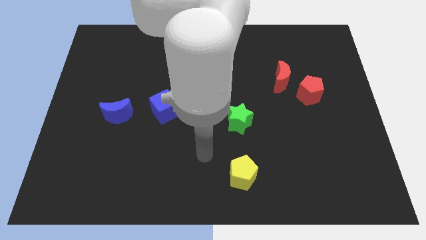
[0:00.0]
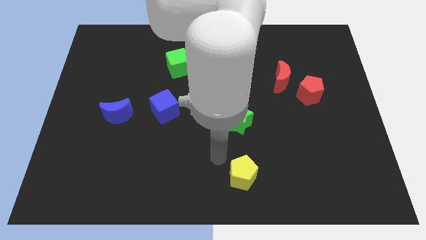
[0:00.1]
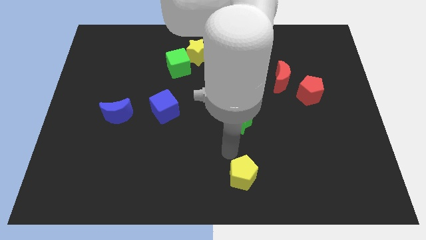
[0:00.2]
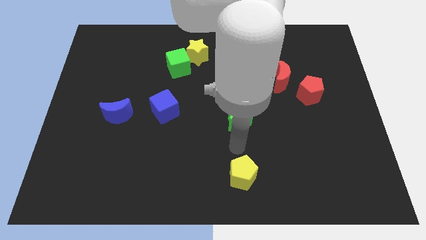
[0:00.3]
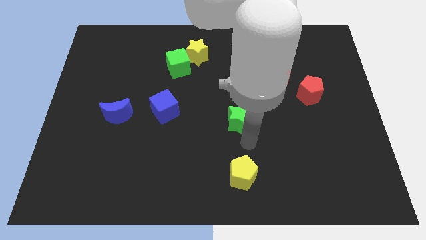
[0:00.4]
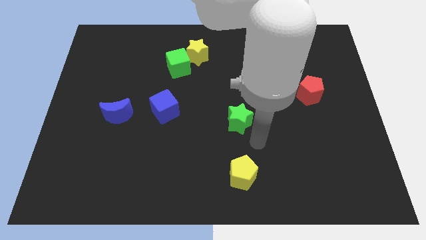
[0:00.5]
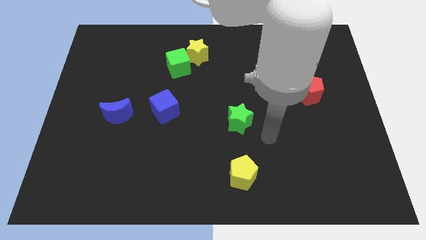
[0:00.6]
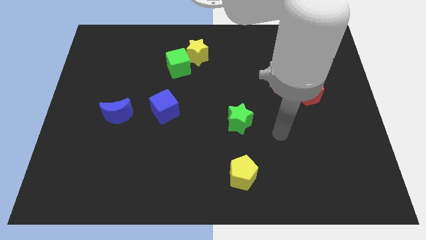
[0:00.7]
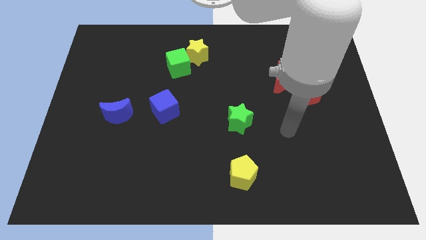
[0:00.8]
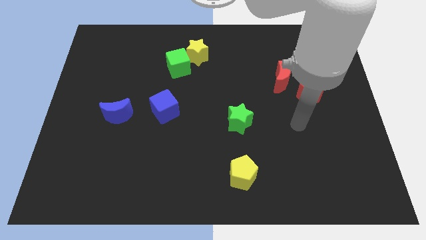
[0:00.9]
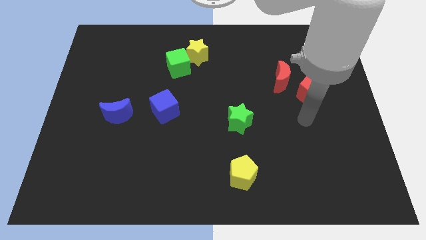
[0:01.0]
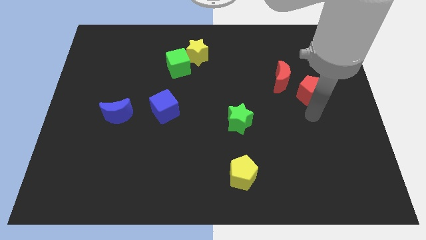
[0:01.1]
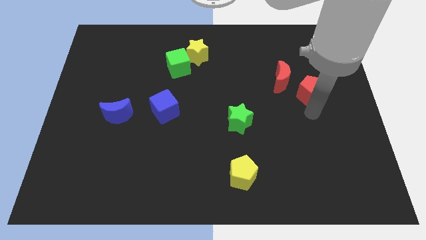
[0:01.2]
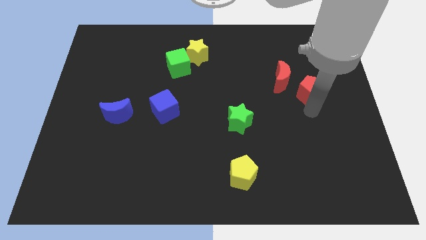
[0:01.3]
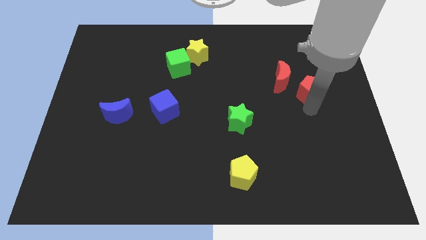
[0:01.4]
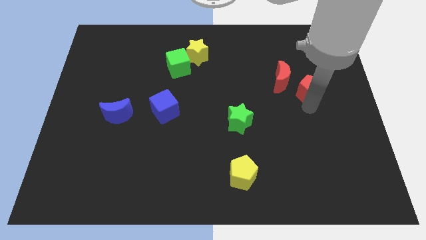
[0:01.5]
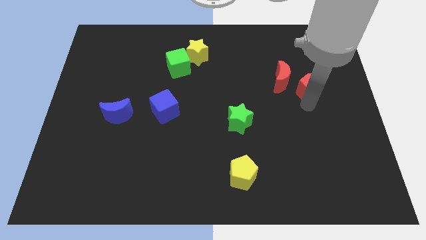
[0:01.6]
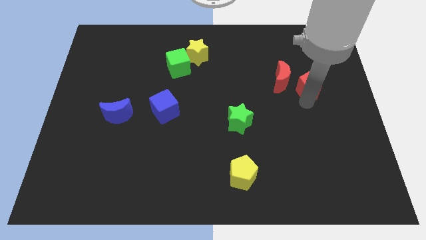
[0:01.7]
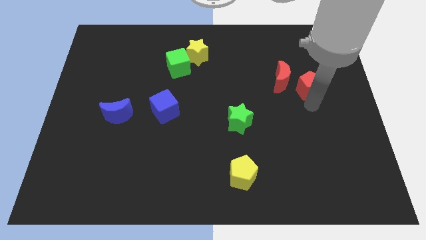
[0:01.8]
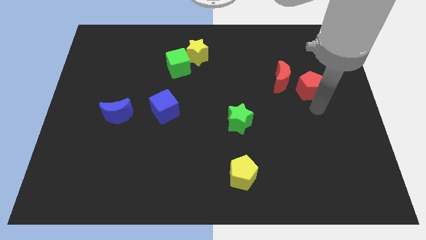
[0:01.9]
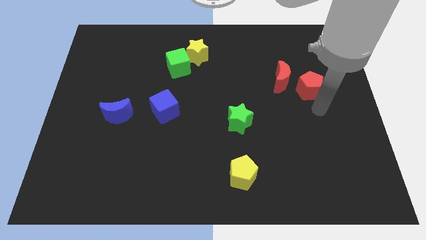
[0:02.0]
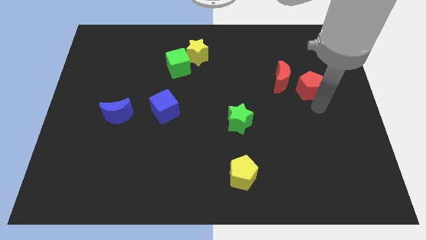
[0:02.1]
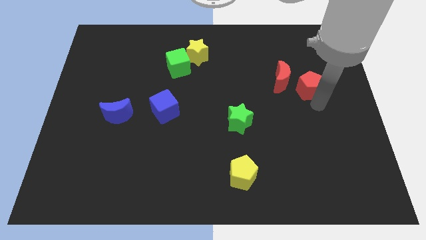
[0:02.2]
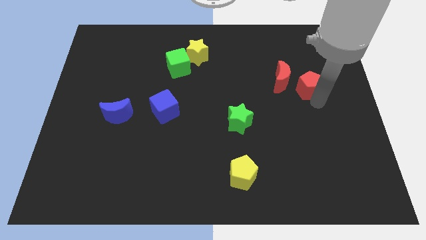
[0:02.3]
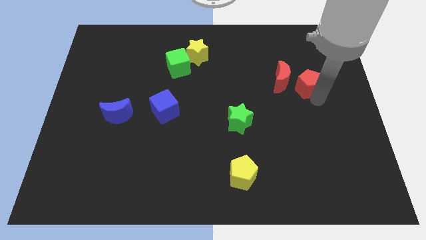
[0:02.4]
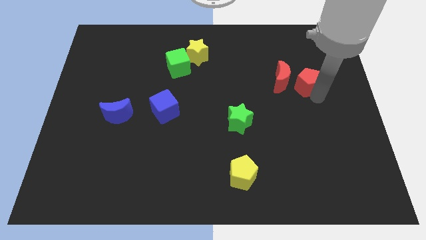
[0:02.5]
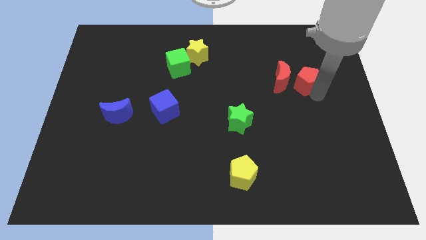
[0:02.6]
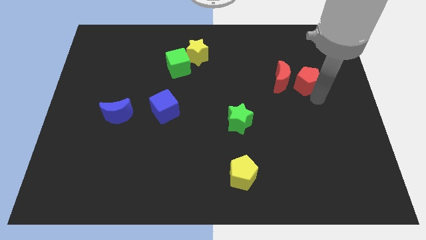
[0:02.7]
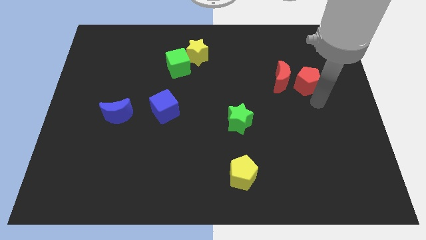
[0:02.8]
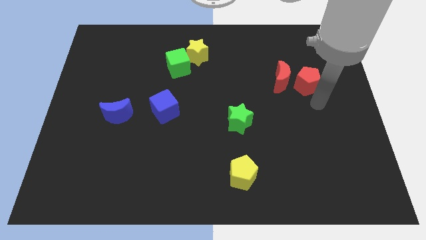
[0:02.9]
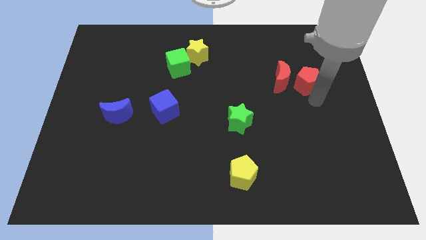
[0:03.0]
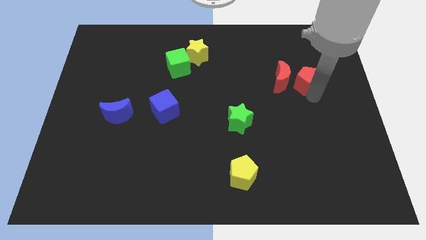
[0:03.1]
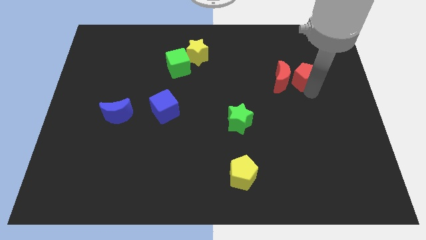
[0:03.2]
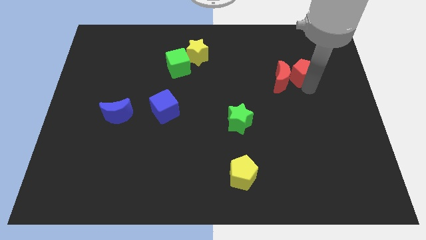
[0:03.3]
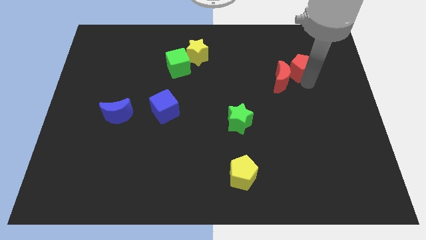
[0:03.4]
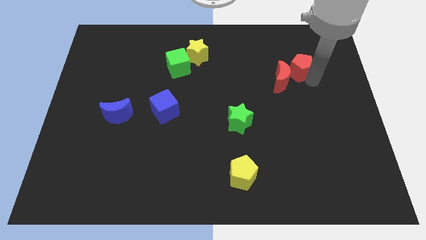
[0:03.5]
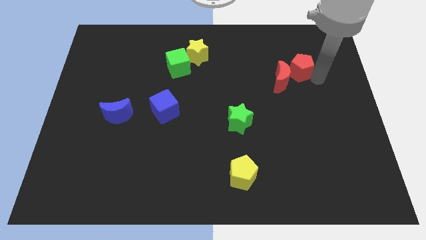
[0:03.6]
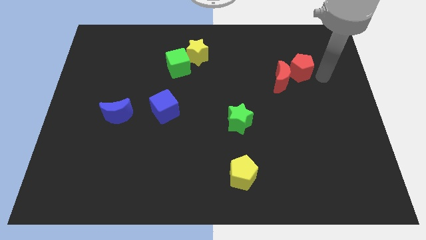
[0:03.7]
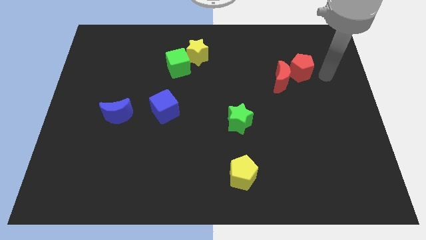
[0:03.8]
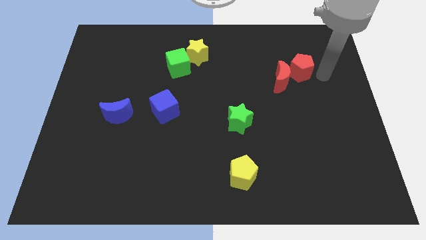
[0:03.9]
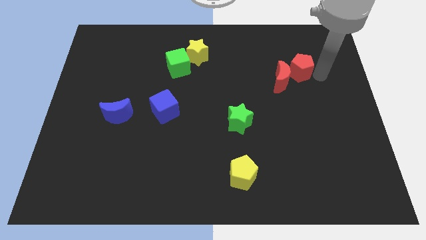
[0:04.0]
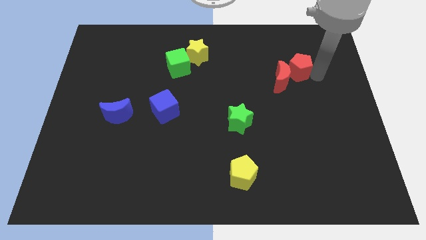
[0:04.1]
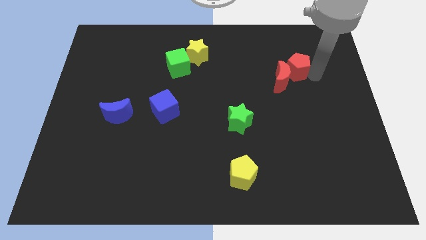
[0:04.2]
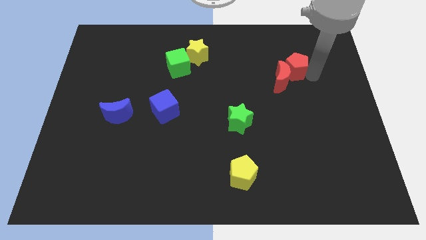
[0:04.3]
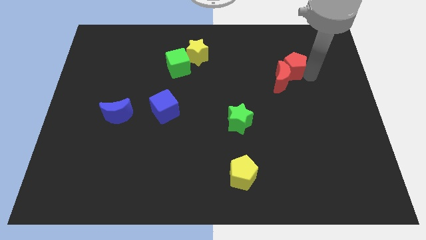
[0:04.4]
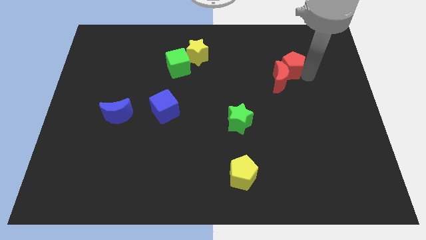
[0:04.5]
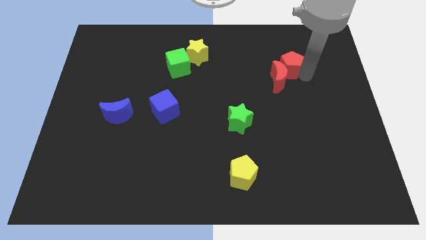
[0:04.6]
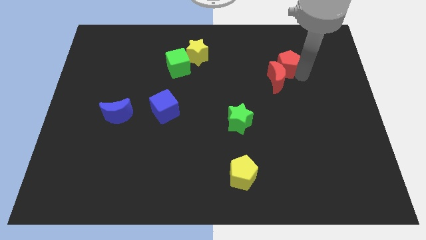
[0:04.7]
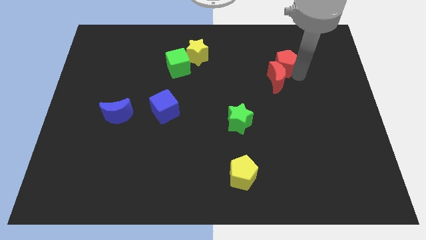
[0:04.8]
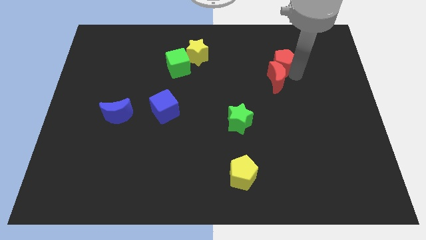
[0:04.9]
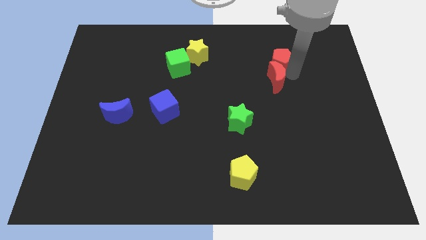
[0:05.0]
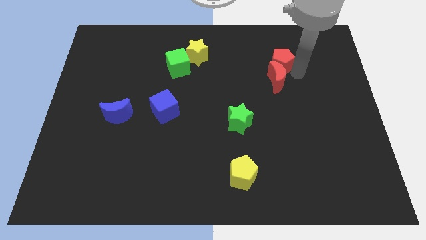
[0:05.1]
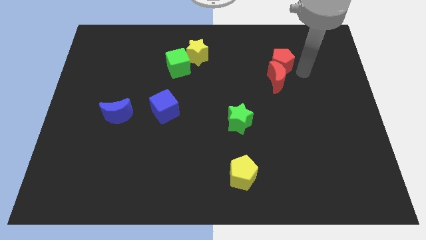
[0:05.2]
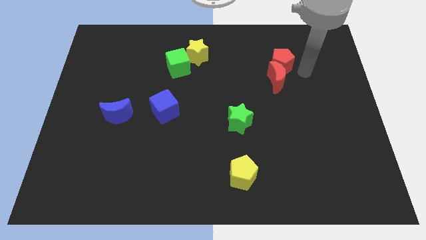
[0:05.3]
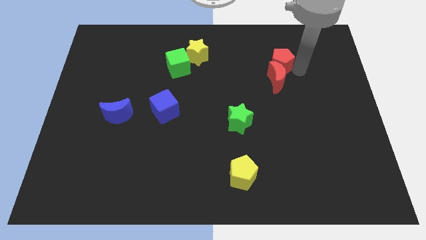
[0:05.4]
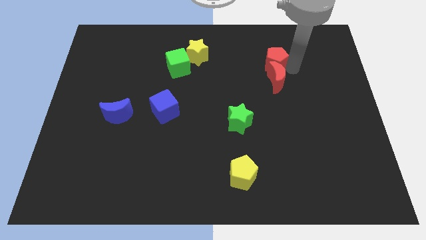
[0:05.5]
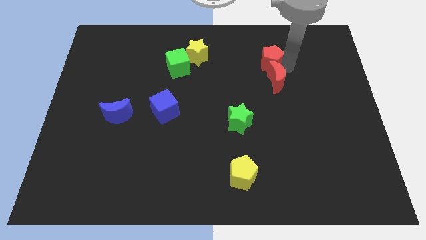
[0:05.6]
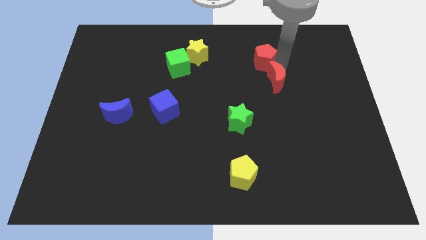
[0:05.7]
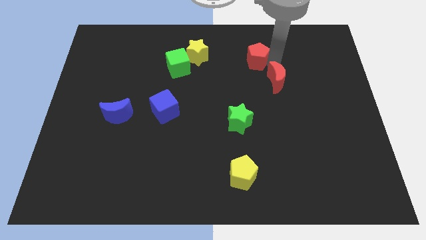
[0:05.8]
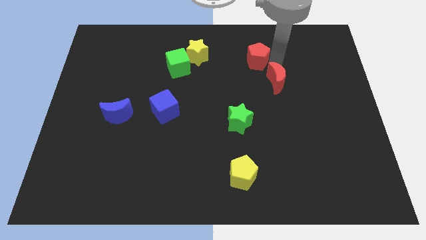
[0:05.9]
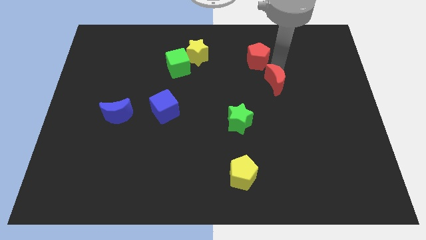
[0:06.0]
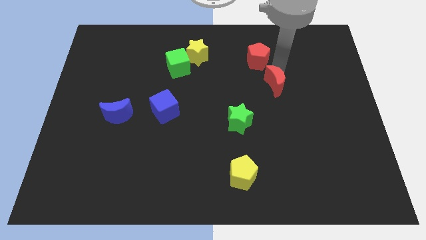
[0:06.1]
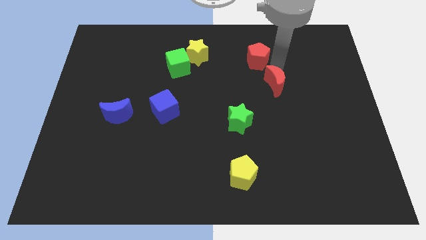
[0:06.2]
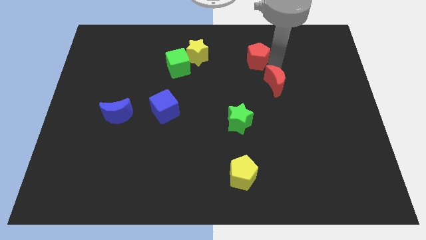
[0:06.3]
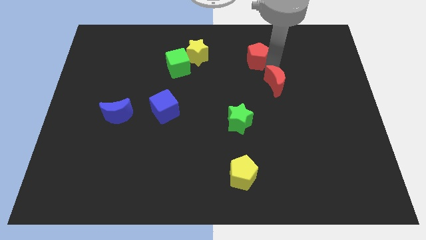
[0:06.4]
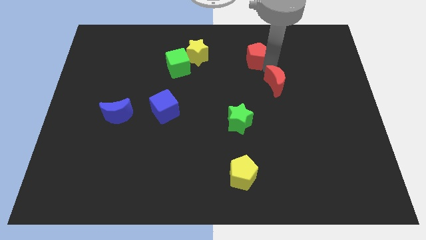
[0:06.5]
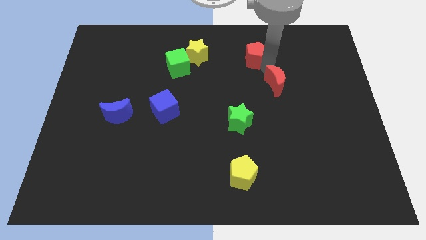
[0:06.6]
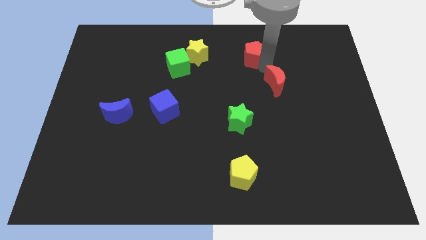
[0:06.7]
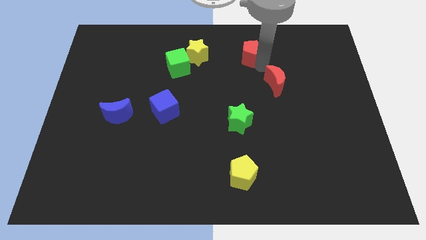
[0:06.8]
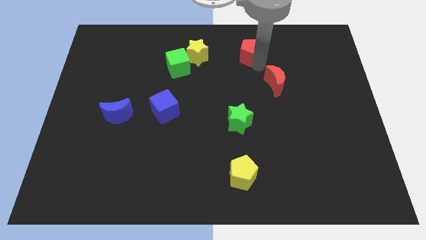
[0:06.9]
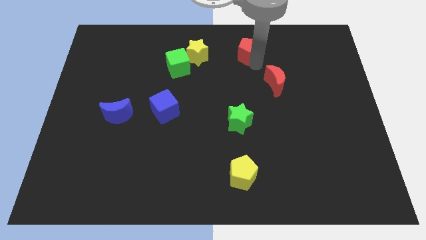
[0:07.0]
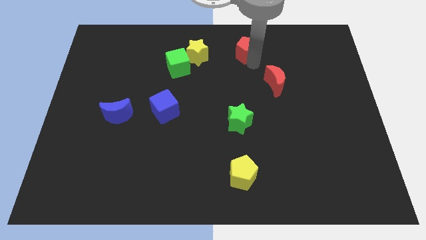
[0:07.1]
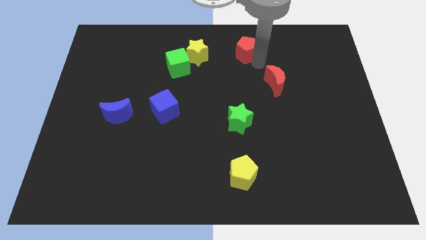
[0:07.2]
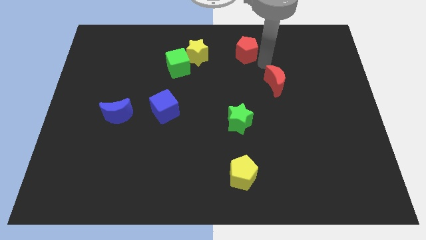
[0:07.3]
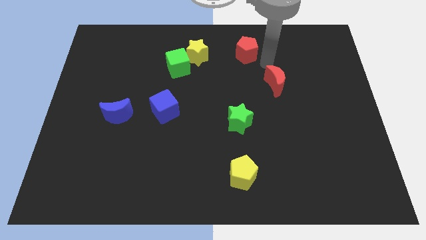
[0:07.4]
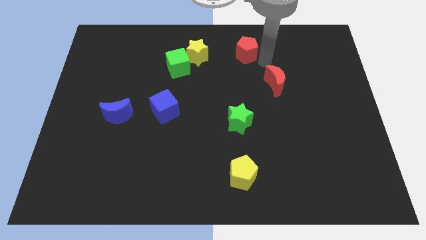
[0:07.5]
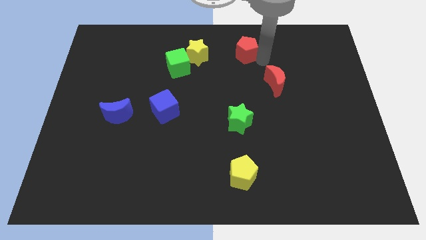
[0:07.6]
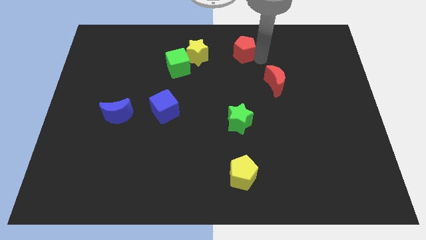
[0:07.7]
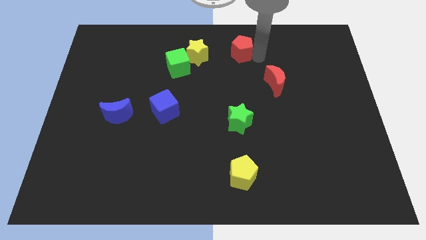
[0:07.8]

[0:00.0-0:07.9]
put the red pentagon to the top side
